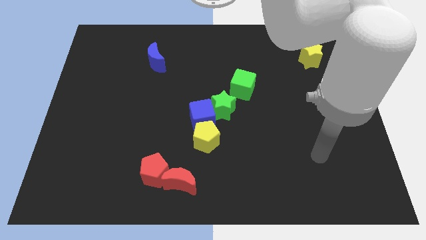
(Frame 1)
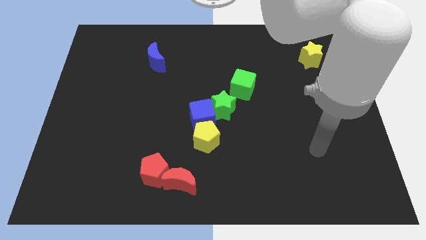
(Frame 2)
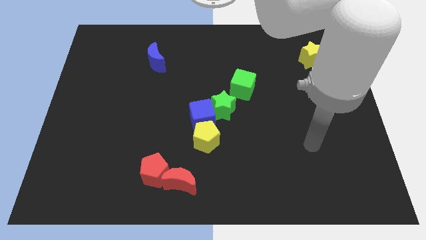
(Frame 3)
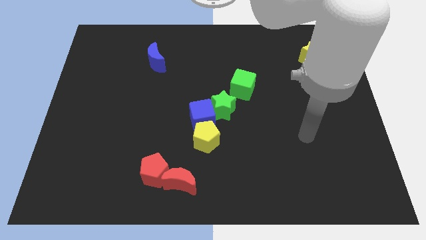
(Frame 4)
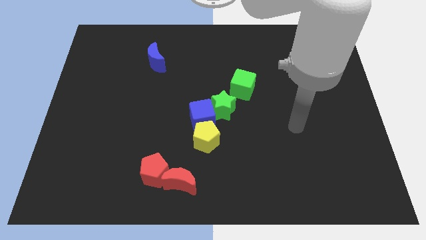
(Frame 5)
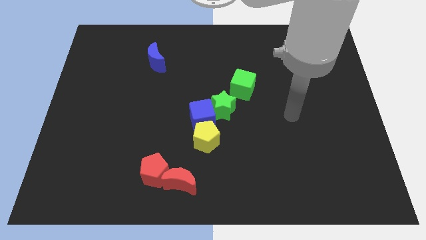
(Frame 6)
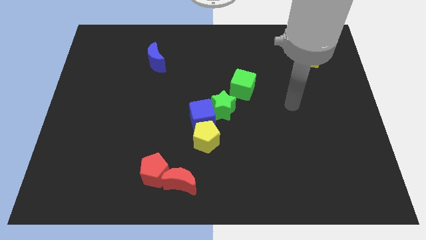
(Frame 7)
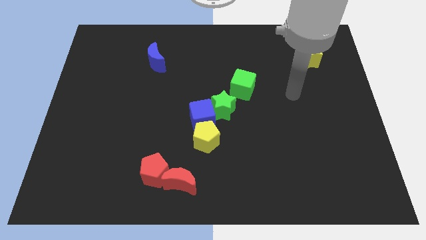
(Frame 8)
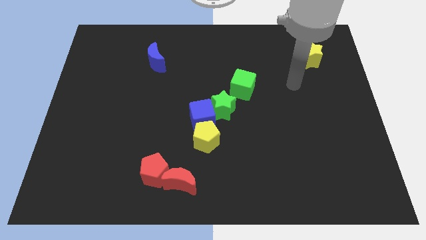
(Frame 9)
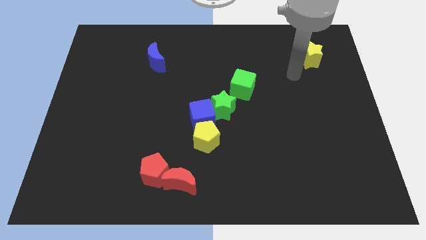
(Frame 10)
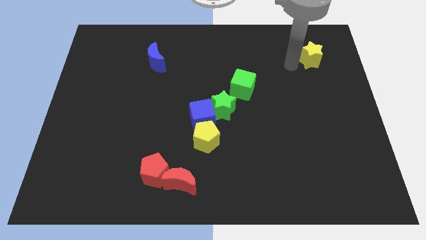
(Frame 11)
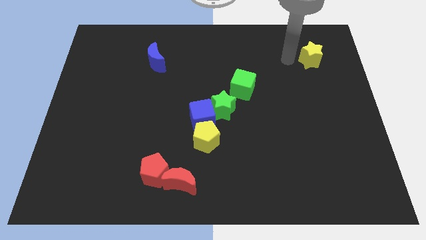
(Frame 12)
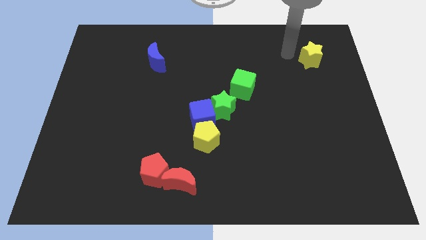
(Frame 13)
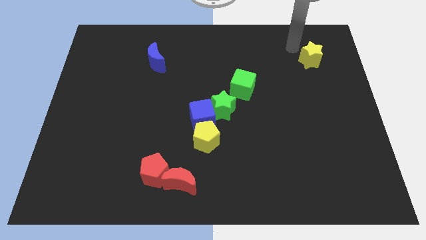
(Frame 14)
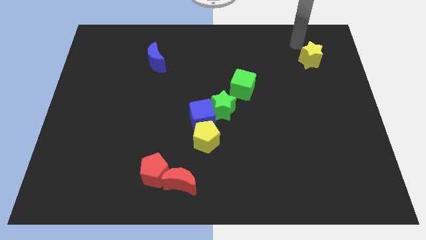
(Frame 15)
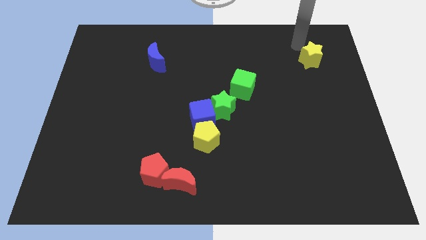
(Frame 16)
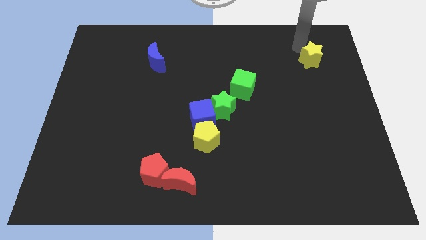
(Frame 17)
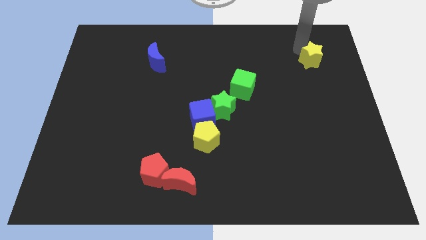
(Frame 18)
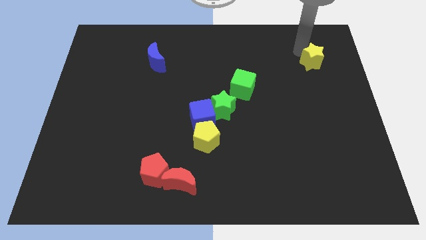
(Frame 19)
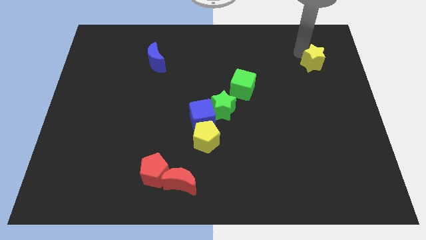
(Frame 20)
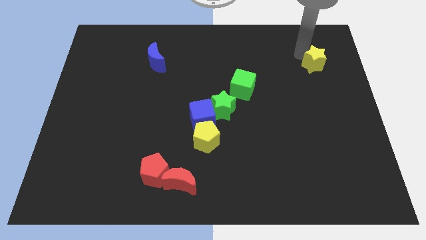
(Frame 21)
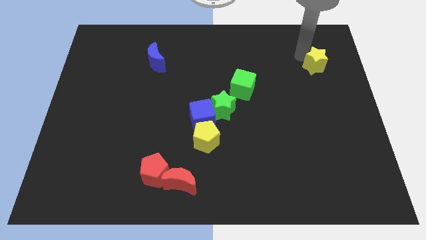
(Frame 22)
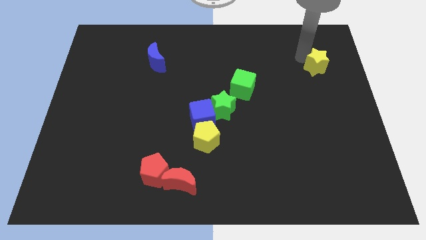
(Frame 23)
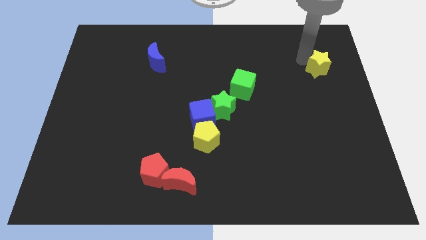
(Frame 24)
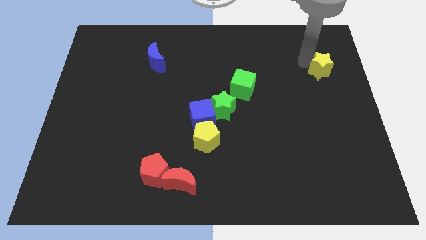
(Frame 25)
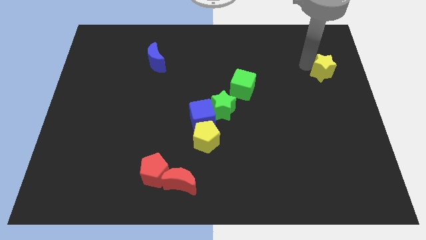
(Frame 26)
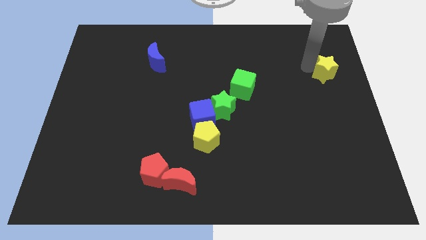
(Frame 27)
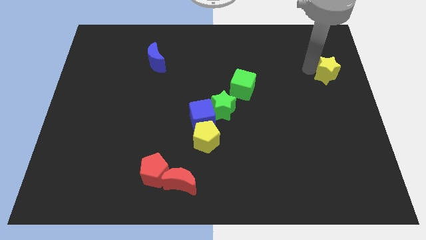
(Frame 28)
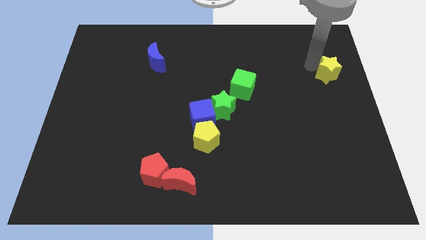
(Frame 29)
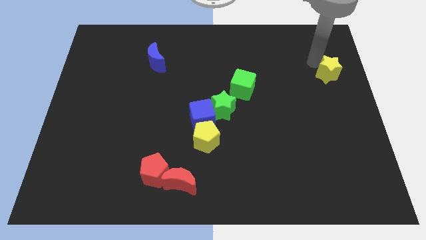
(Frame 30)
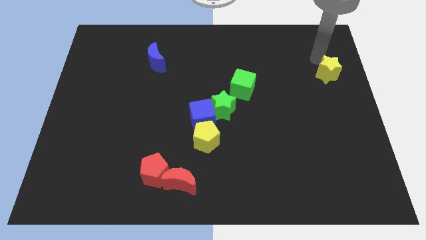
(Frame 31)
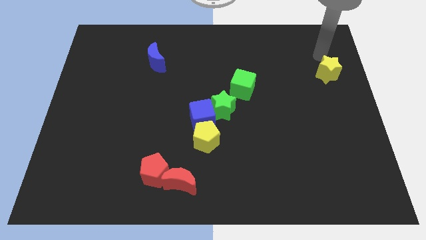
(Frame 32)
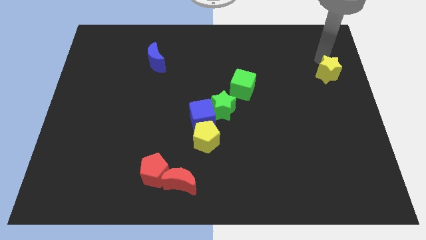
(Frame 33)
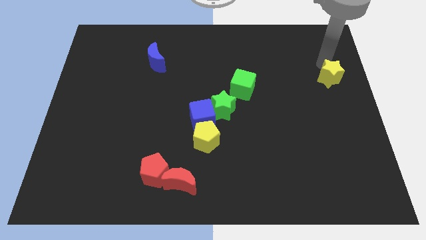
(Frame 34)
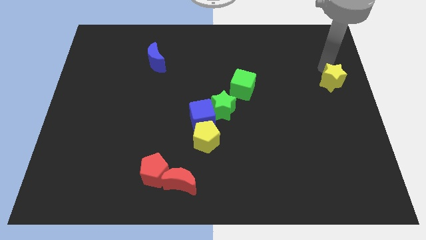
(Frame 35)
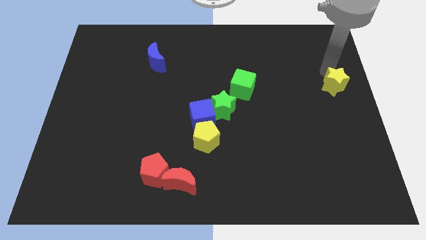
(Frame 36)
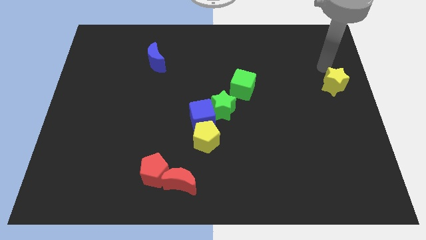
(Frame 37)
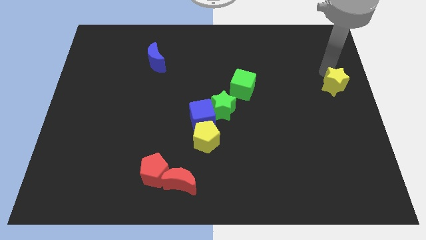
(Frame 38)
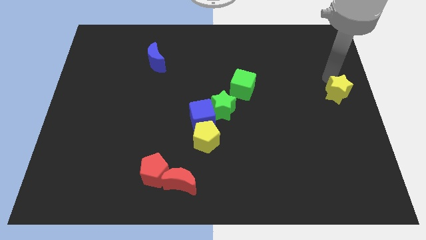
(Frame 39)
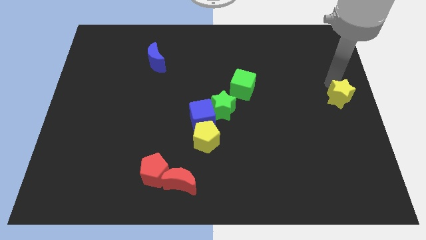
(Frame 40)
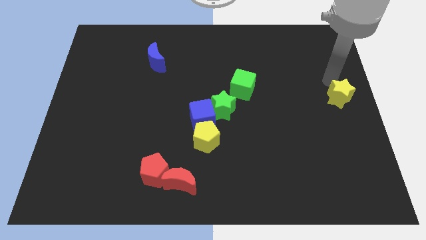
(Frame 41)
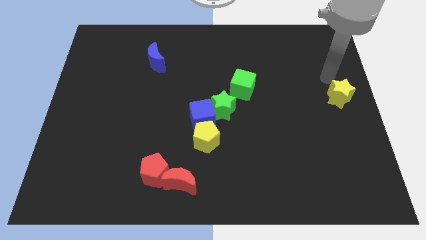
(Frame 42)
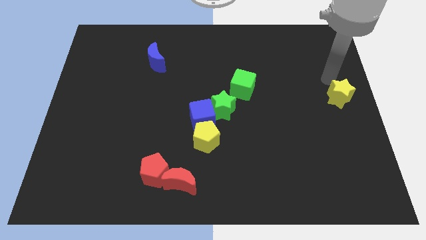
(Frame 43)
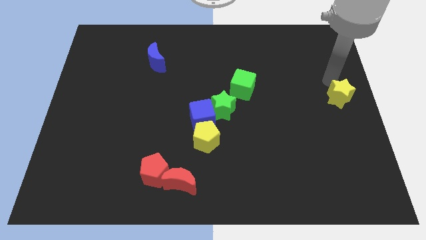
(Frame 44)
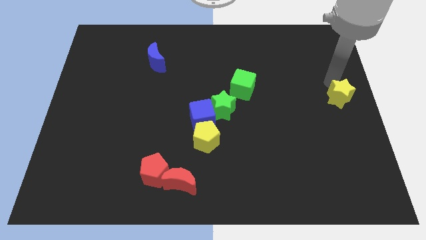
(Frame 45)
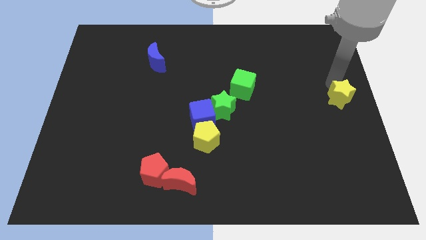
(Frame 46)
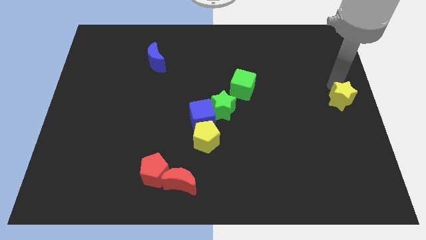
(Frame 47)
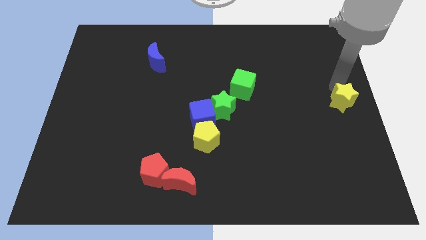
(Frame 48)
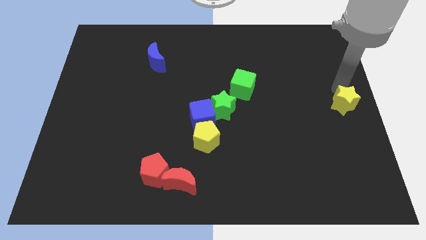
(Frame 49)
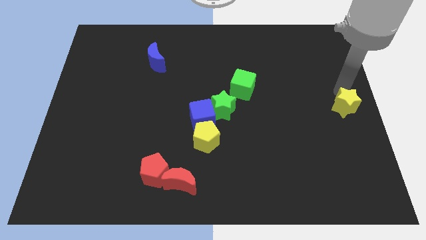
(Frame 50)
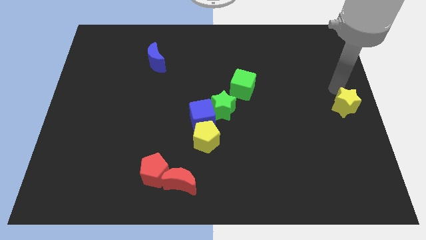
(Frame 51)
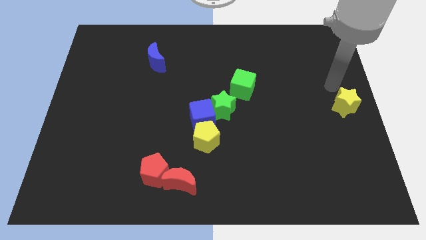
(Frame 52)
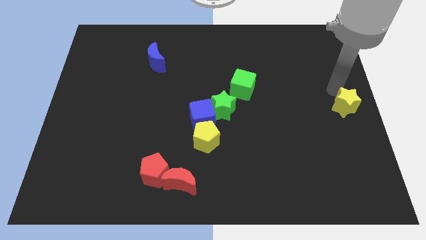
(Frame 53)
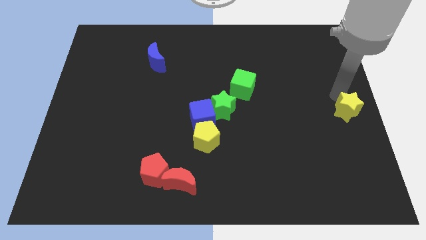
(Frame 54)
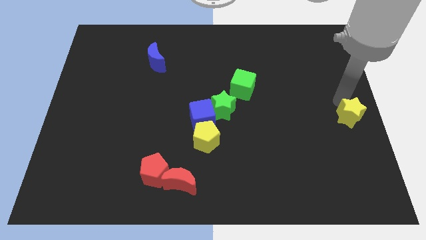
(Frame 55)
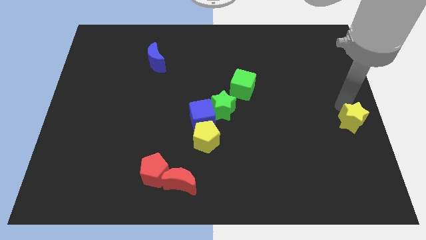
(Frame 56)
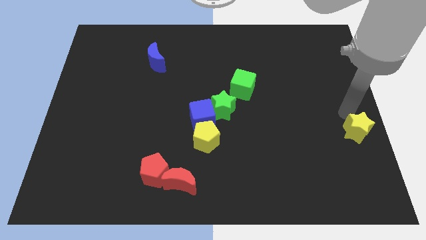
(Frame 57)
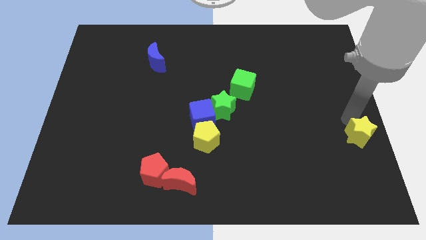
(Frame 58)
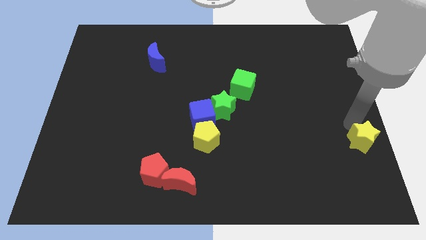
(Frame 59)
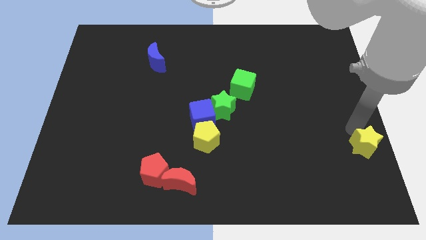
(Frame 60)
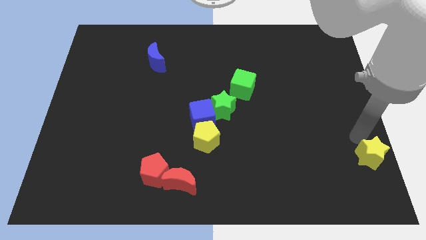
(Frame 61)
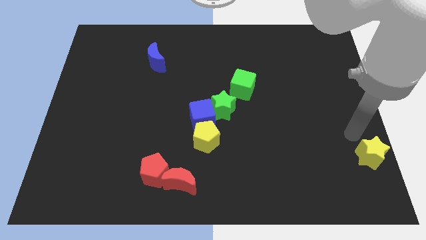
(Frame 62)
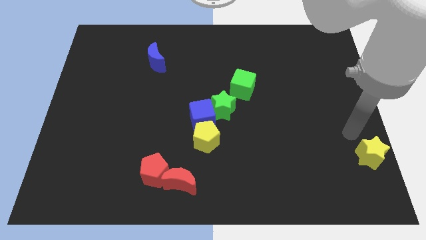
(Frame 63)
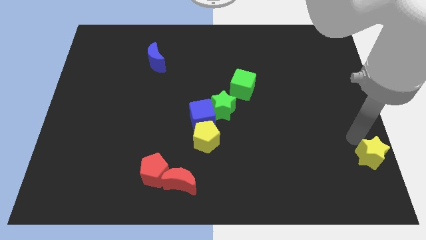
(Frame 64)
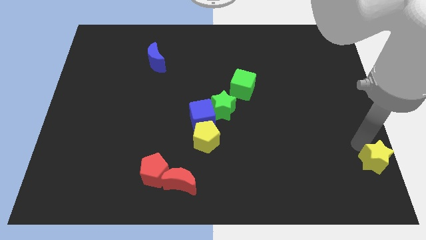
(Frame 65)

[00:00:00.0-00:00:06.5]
push the yellow star to the bottom right
